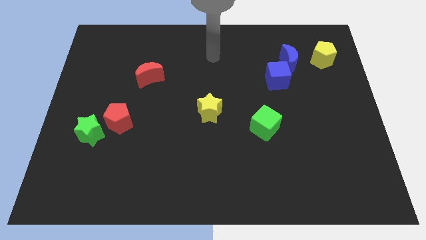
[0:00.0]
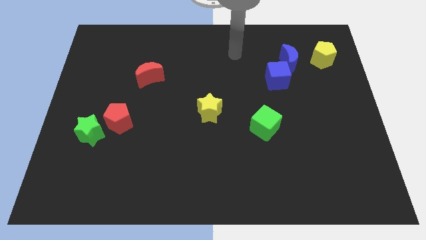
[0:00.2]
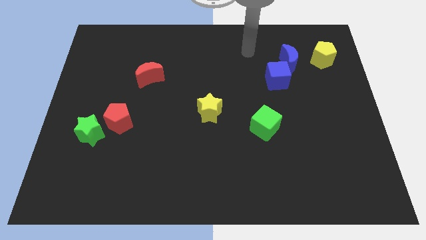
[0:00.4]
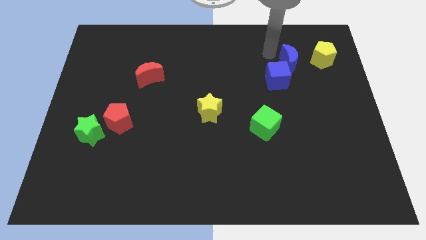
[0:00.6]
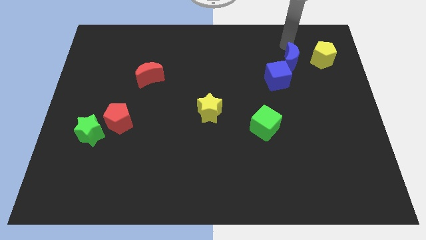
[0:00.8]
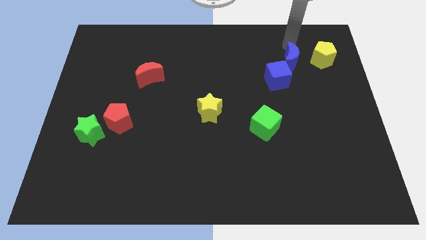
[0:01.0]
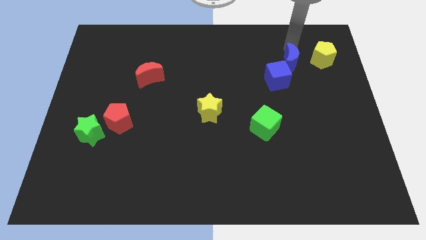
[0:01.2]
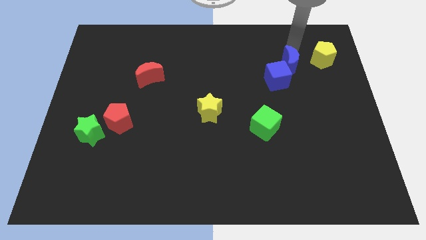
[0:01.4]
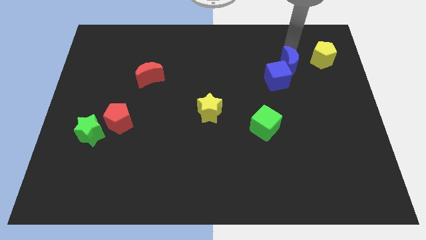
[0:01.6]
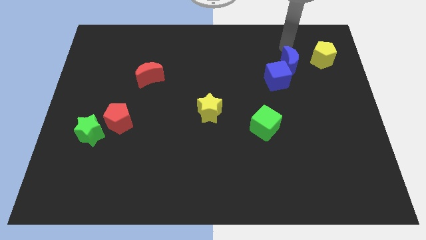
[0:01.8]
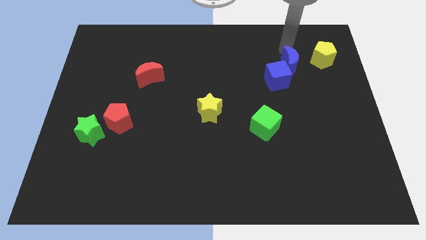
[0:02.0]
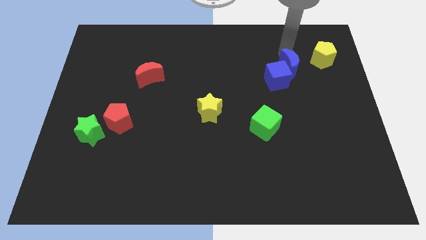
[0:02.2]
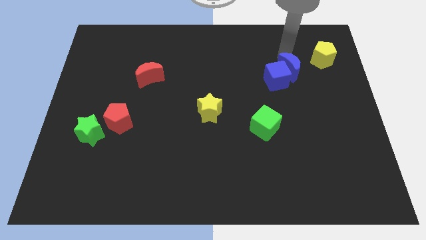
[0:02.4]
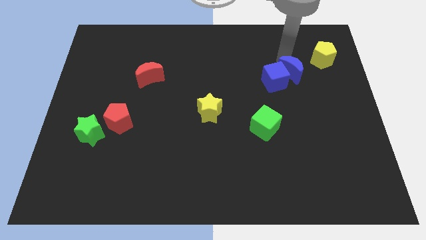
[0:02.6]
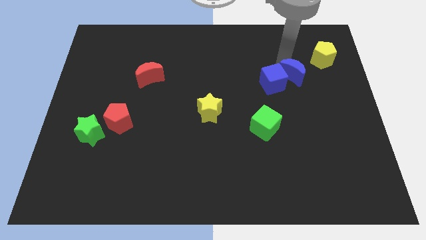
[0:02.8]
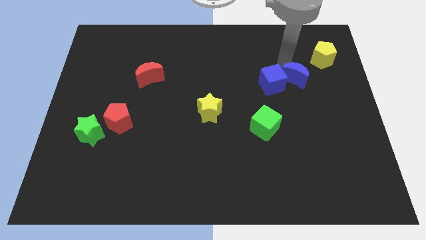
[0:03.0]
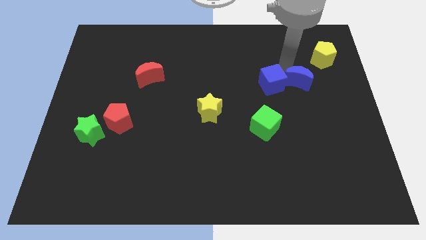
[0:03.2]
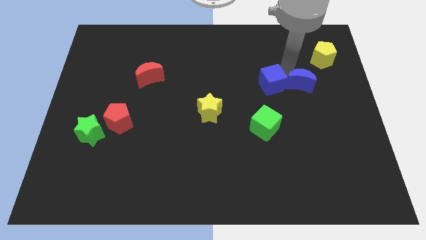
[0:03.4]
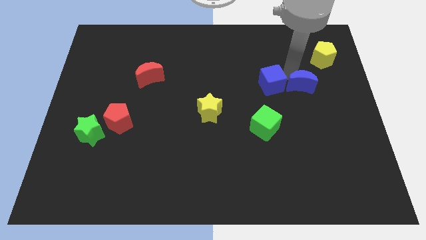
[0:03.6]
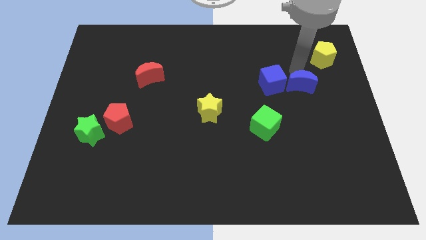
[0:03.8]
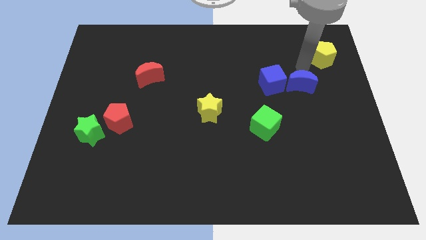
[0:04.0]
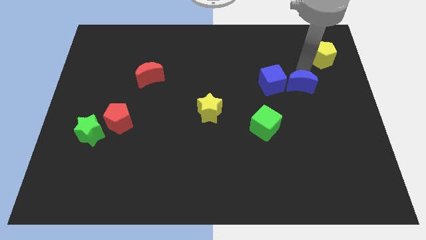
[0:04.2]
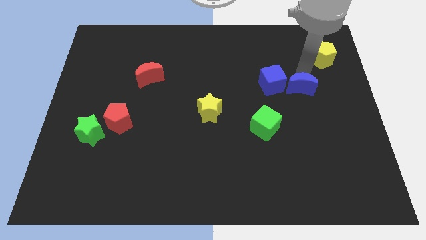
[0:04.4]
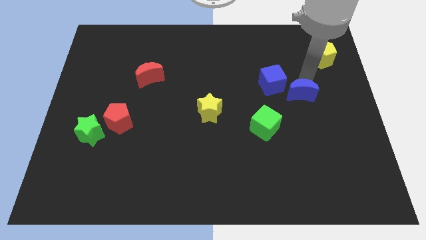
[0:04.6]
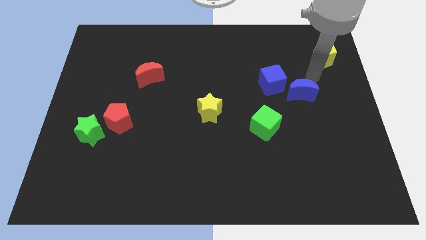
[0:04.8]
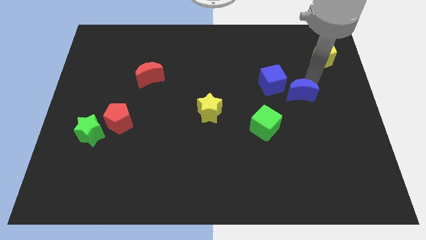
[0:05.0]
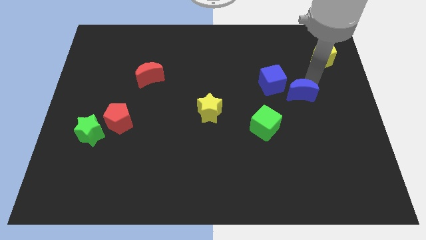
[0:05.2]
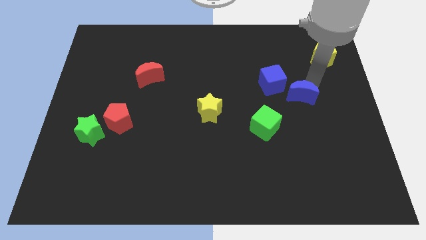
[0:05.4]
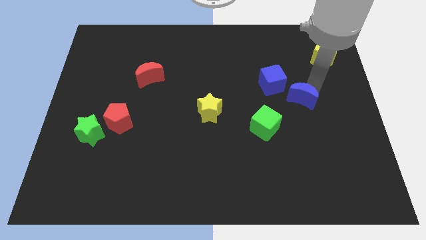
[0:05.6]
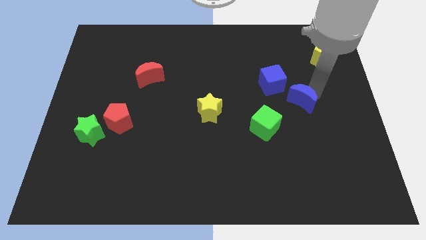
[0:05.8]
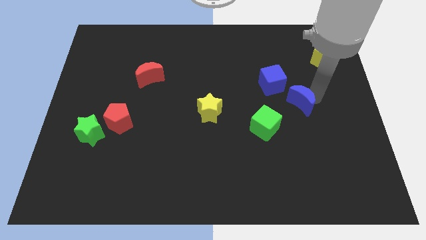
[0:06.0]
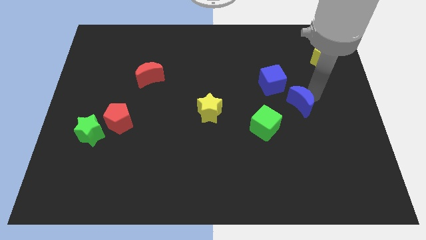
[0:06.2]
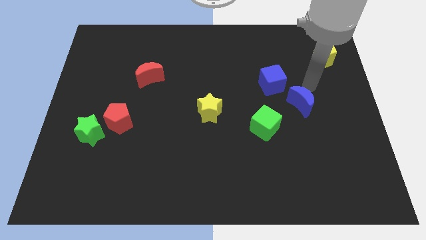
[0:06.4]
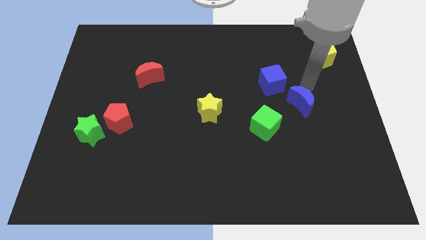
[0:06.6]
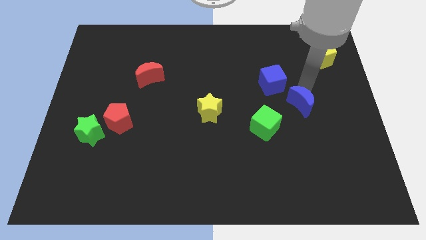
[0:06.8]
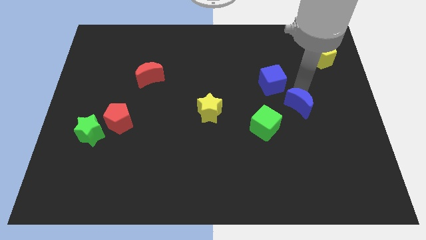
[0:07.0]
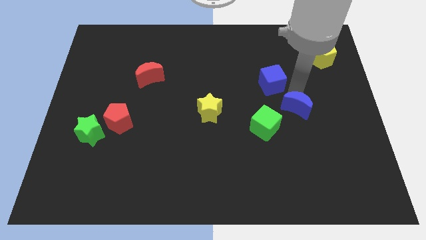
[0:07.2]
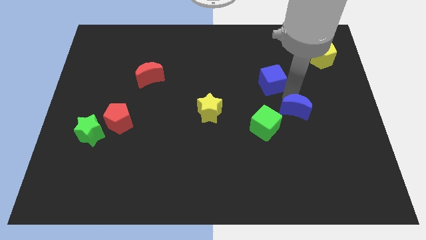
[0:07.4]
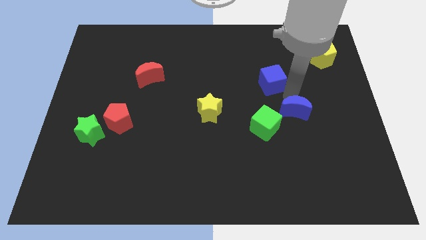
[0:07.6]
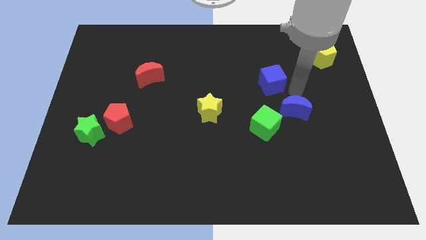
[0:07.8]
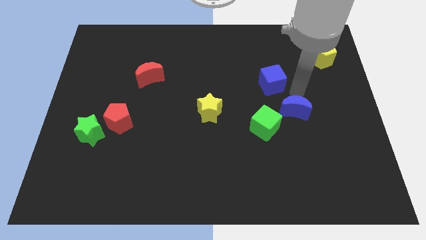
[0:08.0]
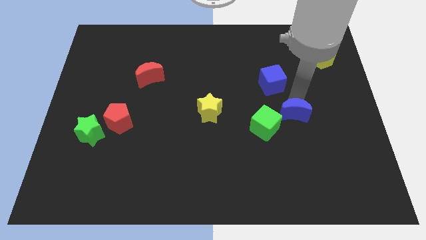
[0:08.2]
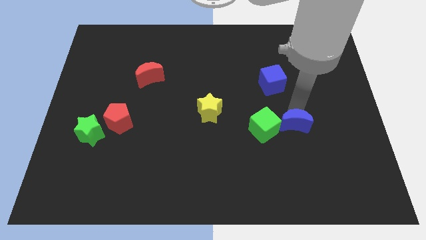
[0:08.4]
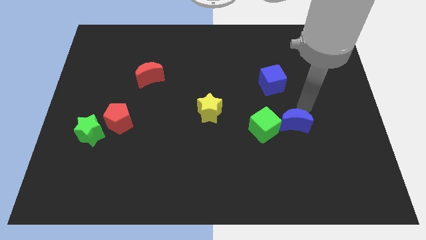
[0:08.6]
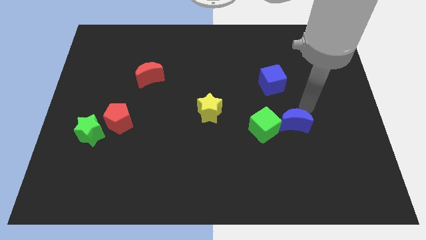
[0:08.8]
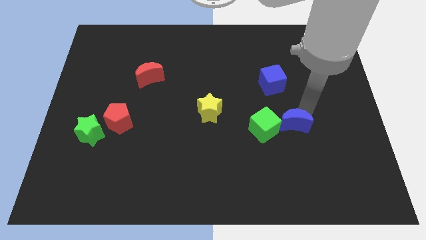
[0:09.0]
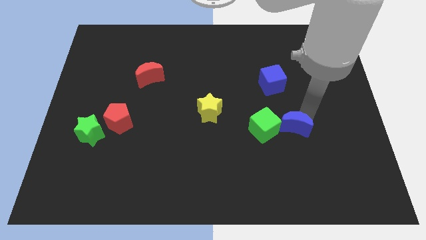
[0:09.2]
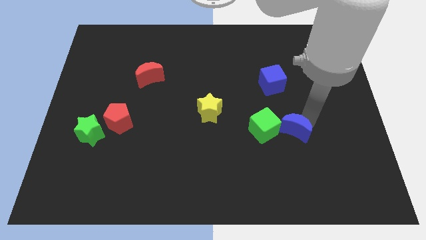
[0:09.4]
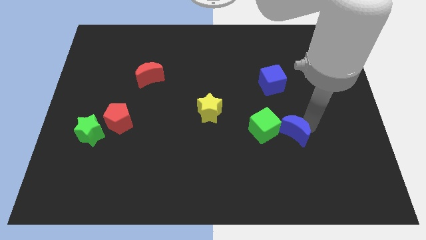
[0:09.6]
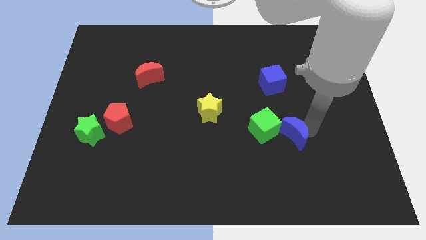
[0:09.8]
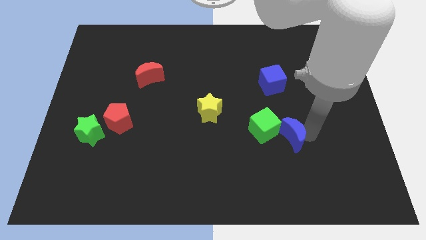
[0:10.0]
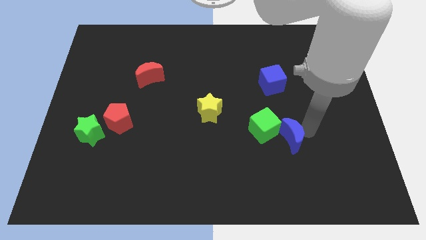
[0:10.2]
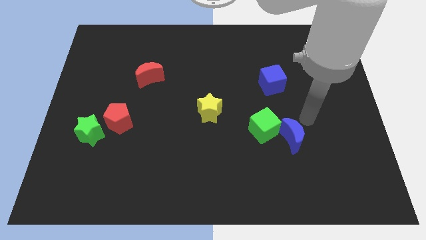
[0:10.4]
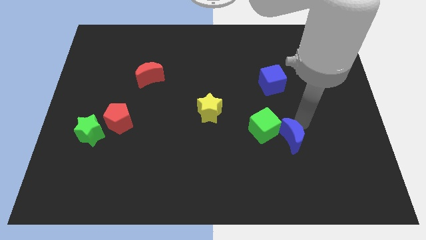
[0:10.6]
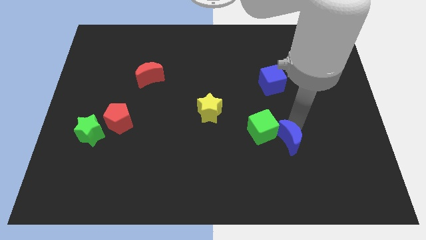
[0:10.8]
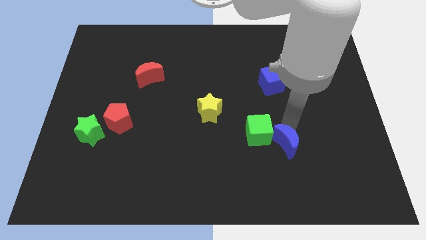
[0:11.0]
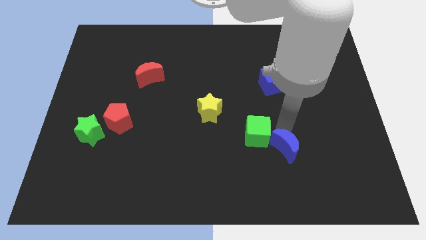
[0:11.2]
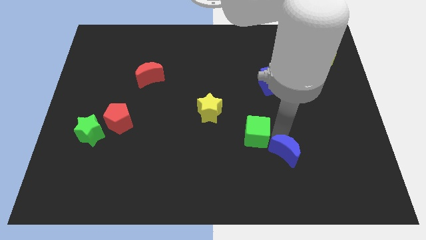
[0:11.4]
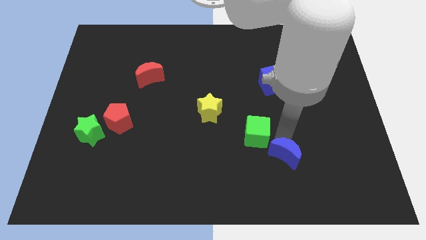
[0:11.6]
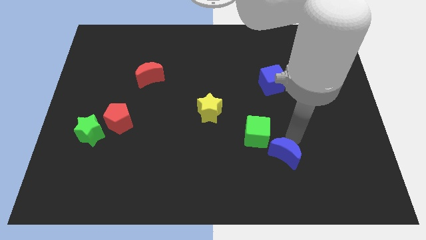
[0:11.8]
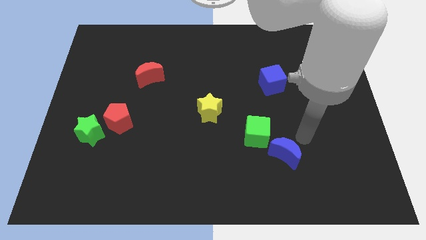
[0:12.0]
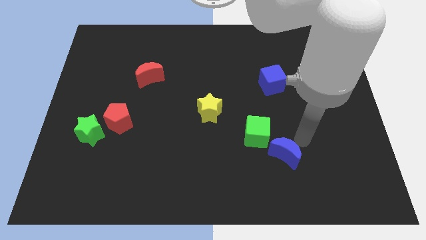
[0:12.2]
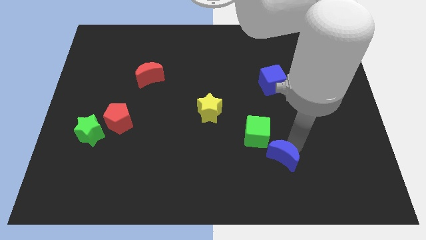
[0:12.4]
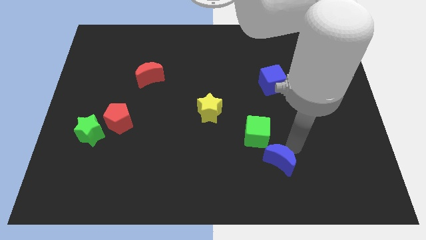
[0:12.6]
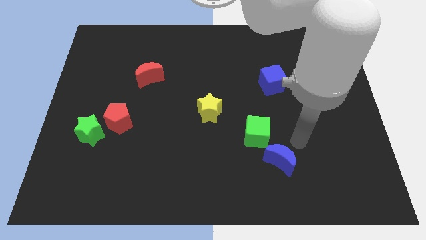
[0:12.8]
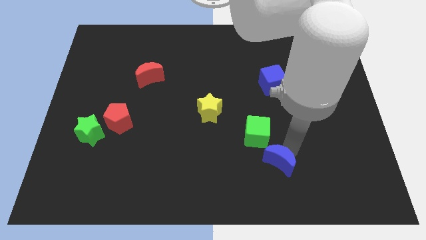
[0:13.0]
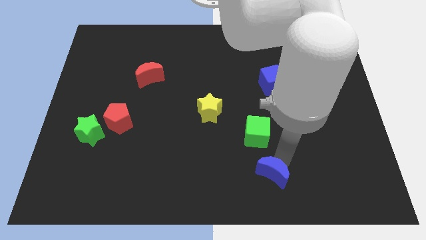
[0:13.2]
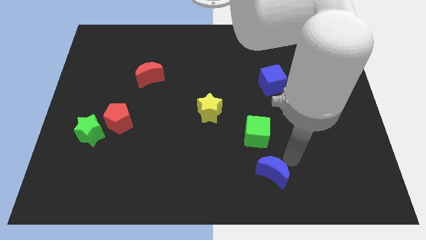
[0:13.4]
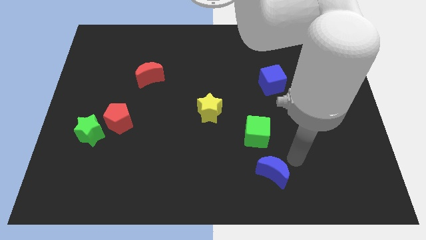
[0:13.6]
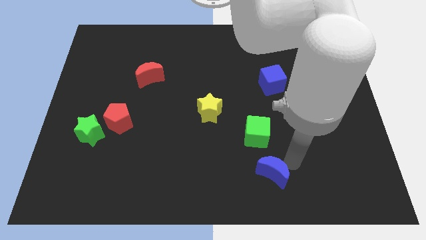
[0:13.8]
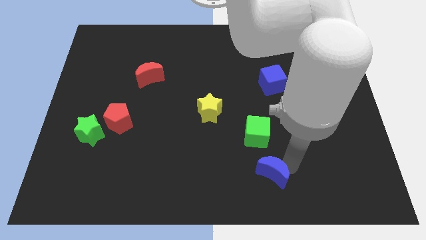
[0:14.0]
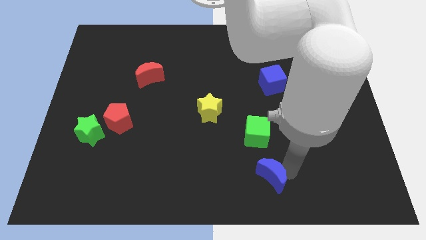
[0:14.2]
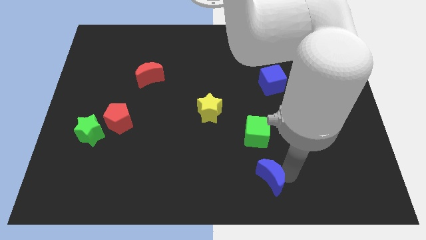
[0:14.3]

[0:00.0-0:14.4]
push the blue moon to the bottom side
